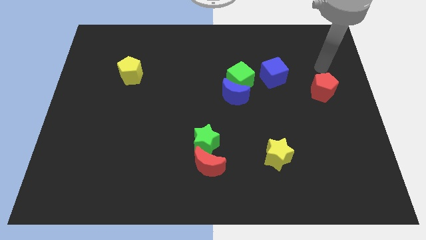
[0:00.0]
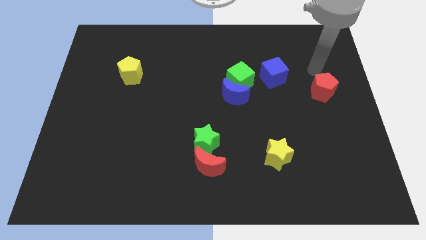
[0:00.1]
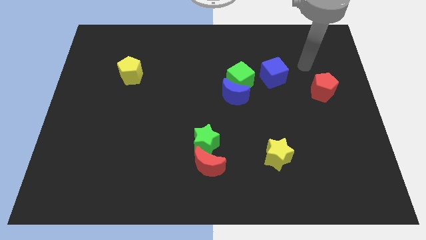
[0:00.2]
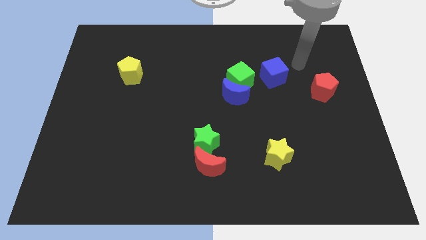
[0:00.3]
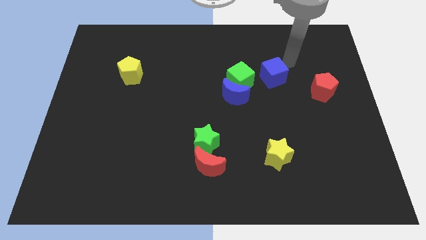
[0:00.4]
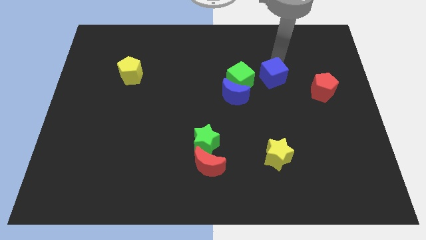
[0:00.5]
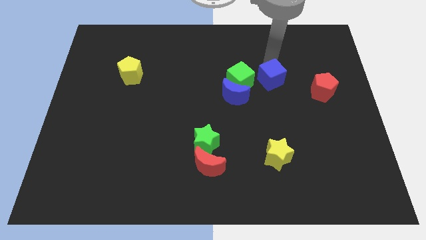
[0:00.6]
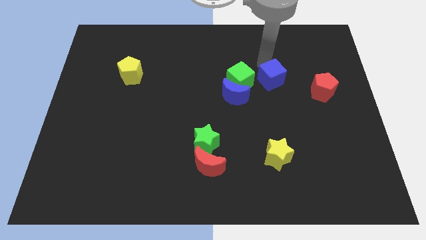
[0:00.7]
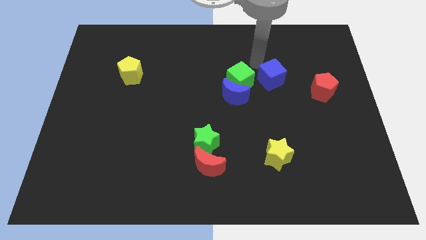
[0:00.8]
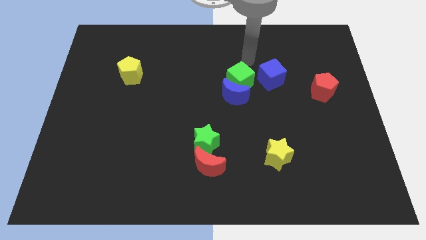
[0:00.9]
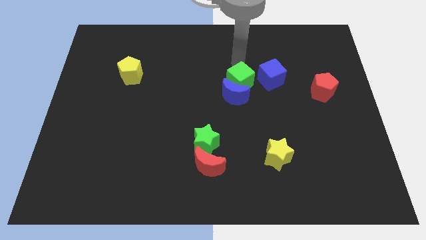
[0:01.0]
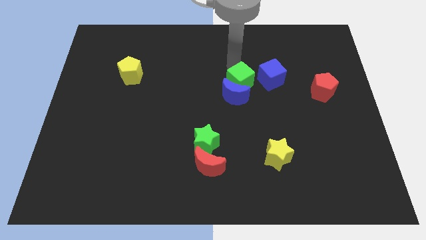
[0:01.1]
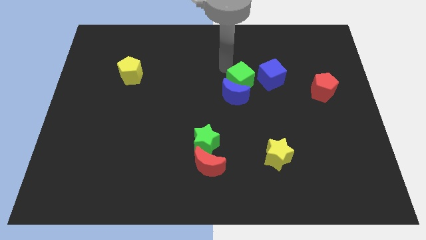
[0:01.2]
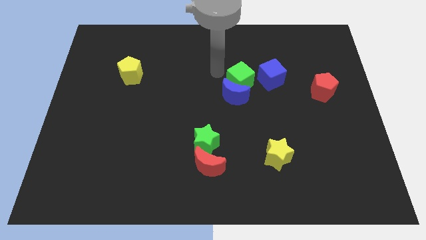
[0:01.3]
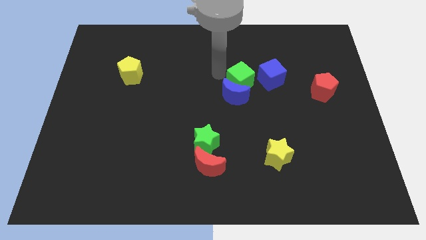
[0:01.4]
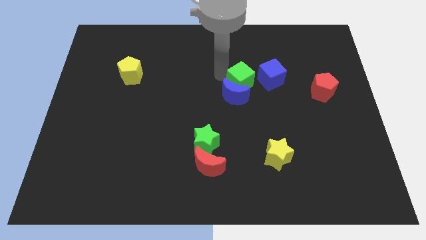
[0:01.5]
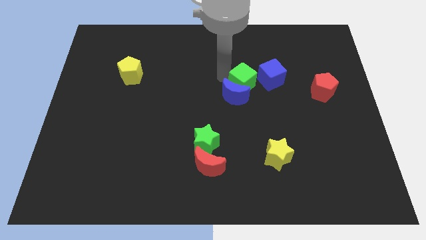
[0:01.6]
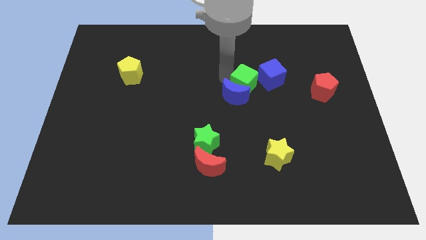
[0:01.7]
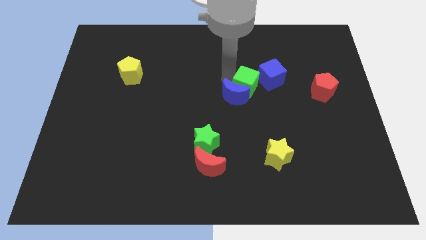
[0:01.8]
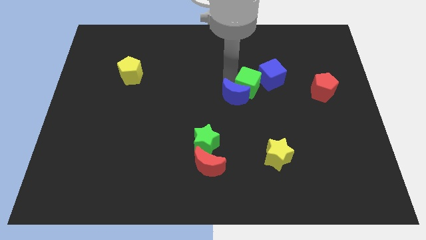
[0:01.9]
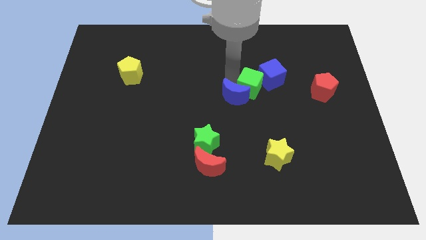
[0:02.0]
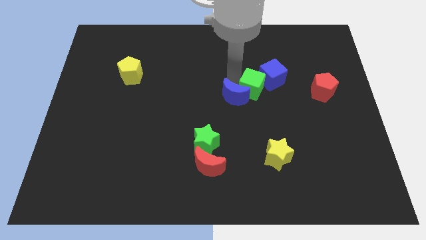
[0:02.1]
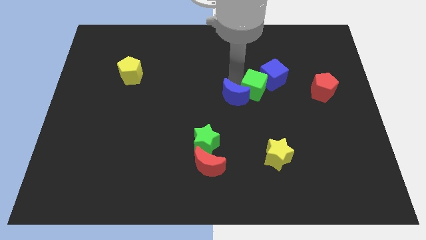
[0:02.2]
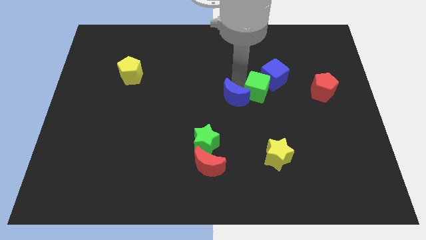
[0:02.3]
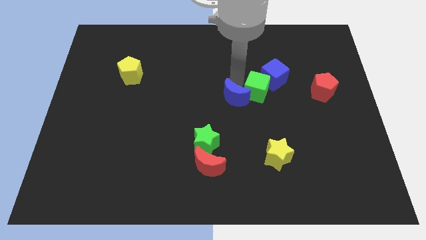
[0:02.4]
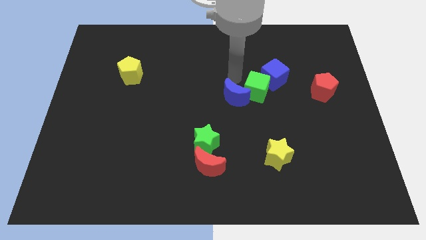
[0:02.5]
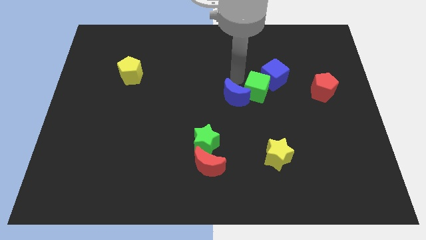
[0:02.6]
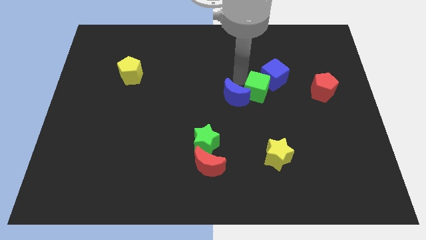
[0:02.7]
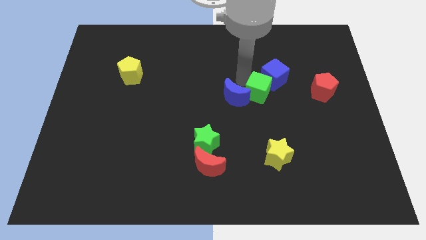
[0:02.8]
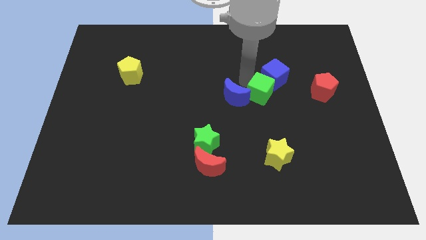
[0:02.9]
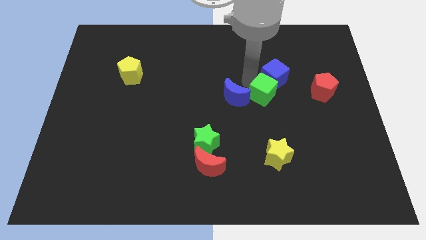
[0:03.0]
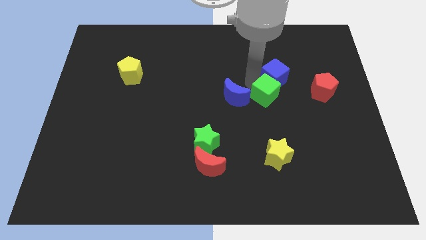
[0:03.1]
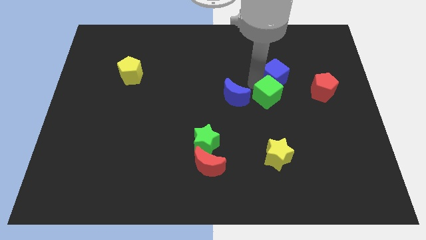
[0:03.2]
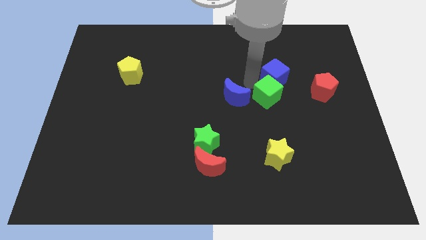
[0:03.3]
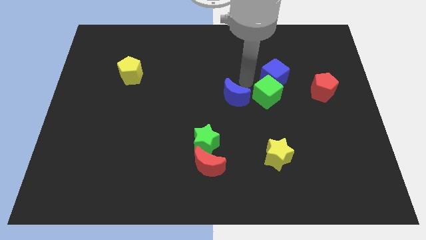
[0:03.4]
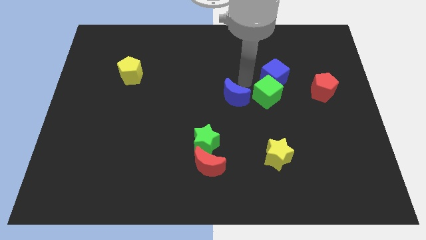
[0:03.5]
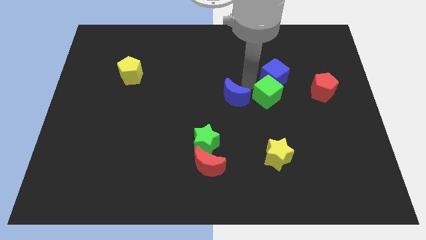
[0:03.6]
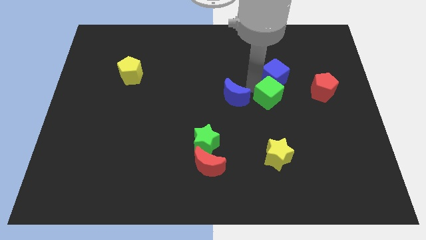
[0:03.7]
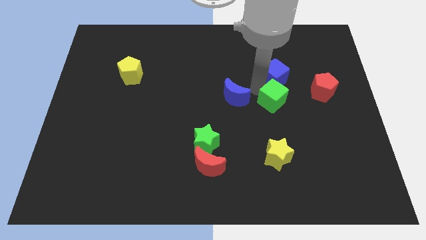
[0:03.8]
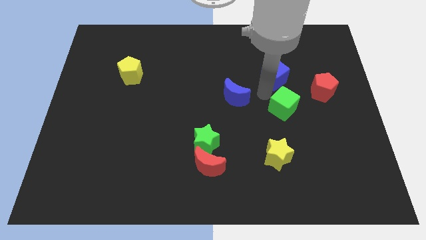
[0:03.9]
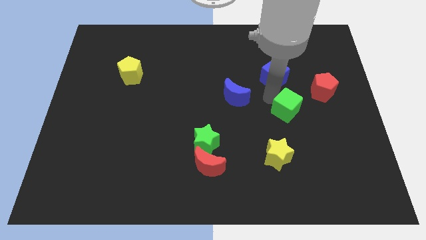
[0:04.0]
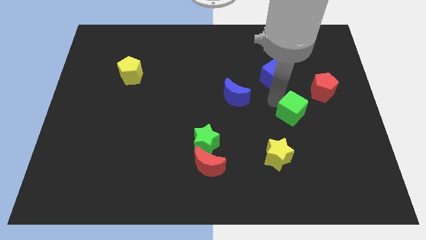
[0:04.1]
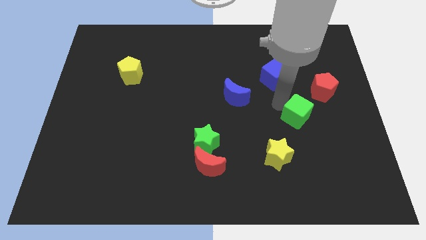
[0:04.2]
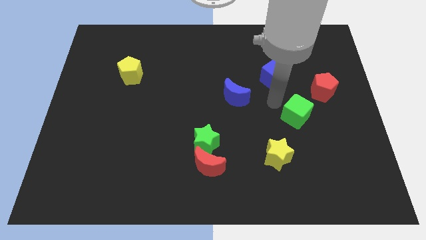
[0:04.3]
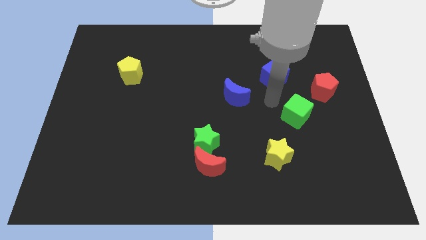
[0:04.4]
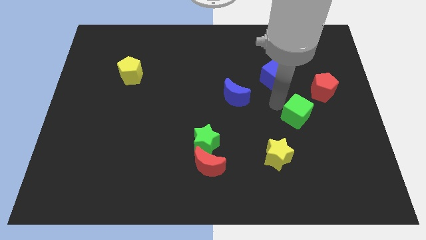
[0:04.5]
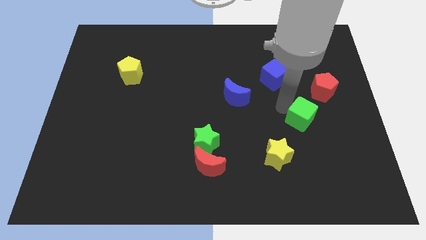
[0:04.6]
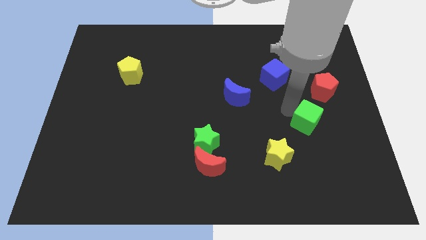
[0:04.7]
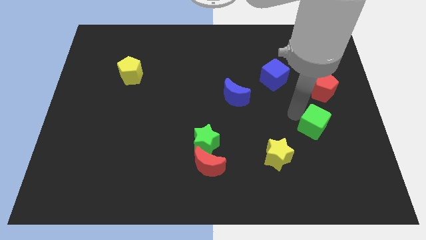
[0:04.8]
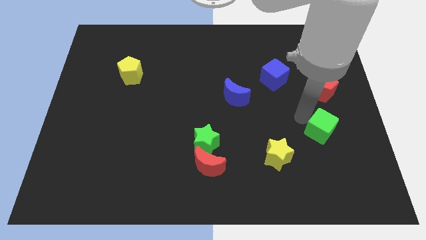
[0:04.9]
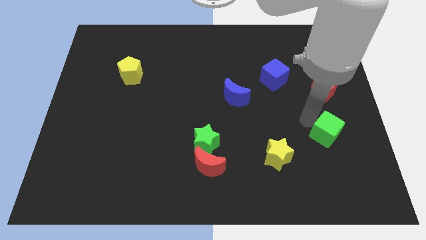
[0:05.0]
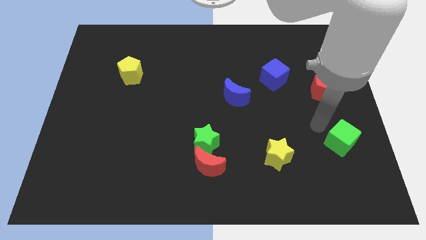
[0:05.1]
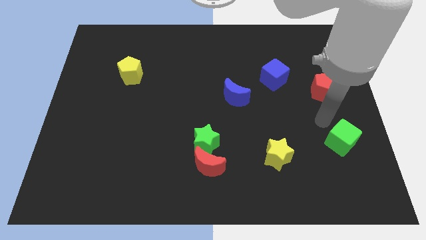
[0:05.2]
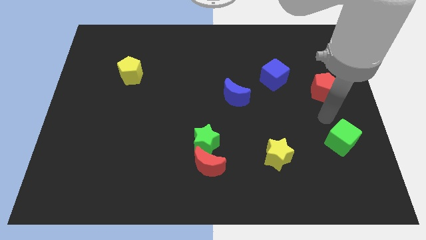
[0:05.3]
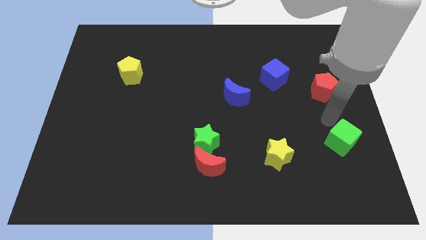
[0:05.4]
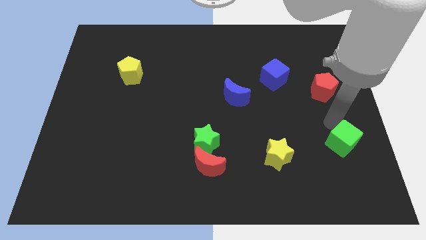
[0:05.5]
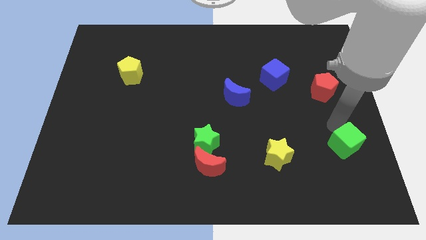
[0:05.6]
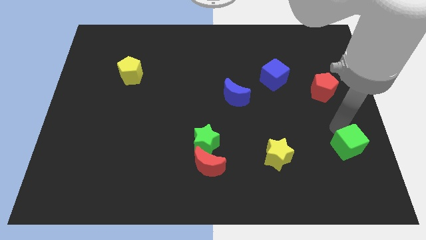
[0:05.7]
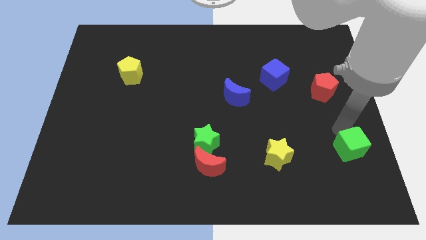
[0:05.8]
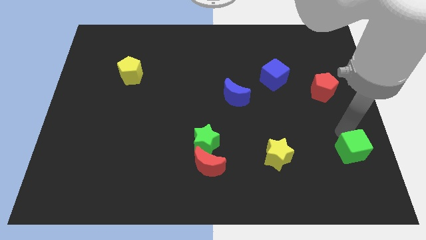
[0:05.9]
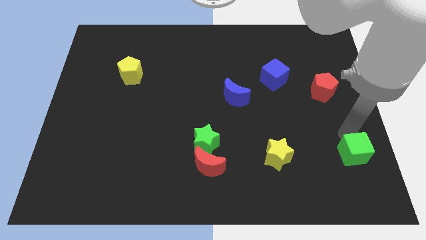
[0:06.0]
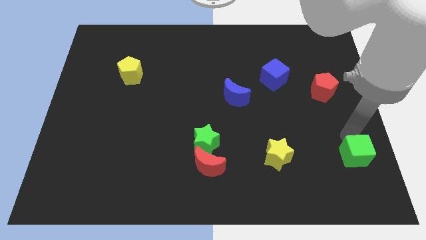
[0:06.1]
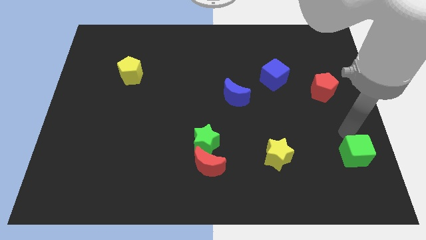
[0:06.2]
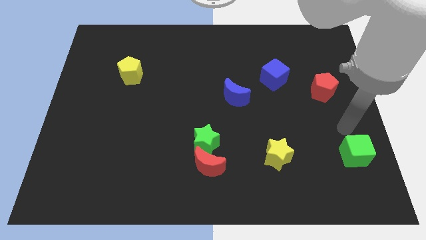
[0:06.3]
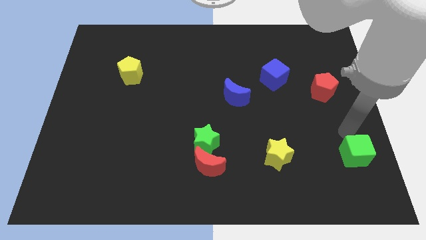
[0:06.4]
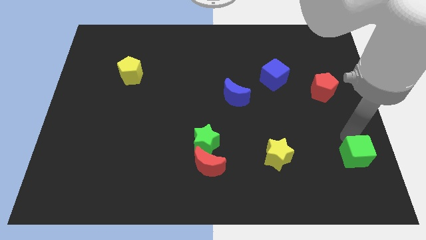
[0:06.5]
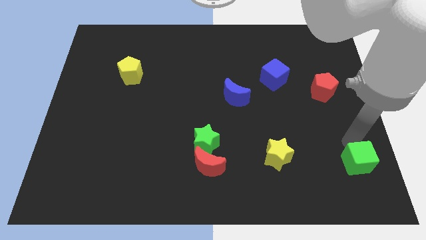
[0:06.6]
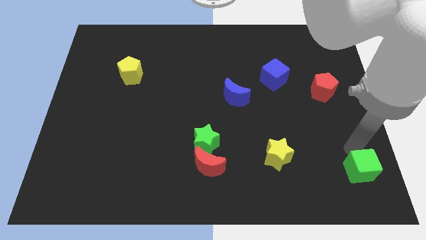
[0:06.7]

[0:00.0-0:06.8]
push the green cube to the lower right corner
